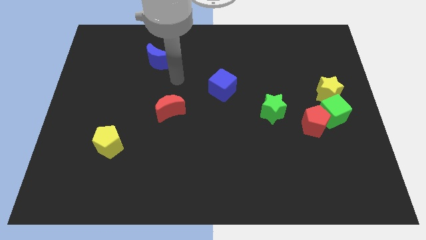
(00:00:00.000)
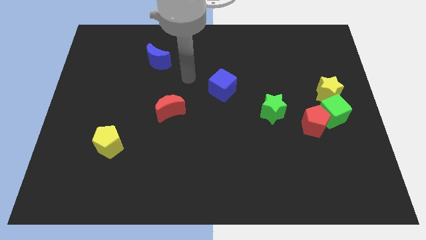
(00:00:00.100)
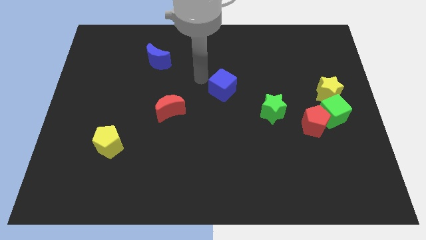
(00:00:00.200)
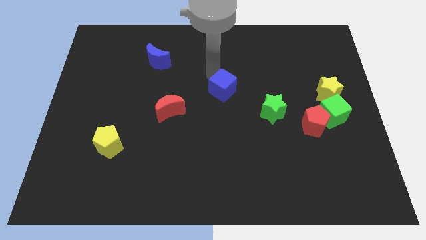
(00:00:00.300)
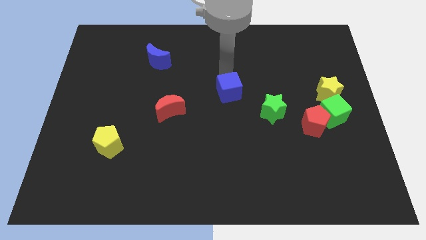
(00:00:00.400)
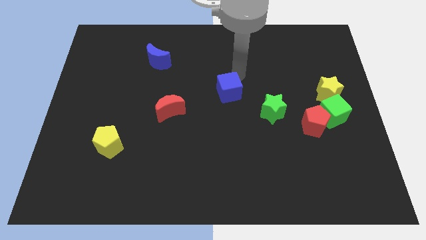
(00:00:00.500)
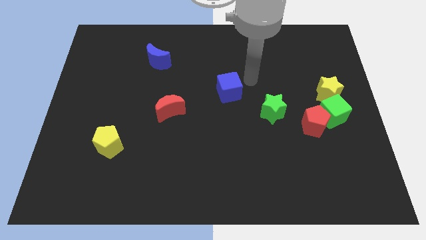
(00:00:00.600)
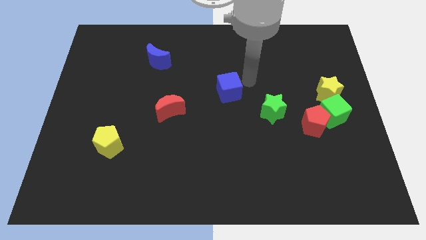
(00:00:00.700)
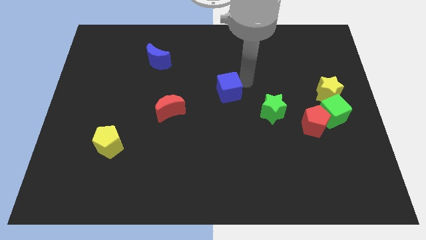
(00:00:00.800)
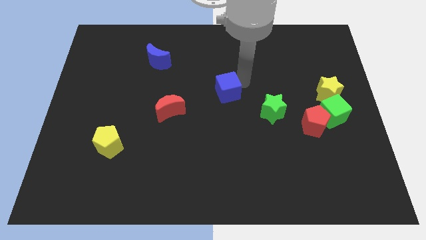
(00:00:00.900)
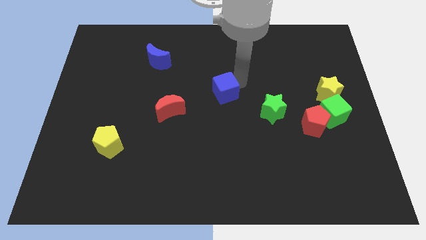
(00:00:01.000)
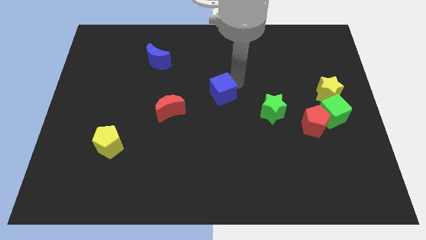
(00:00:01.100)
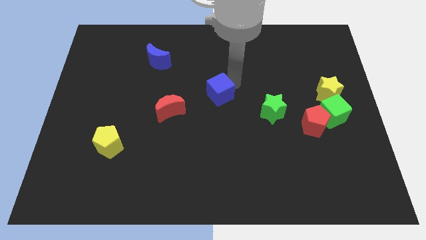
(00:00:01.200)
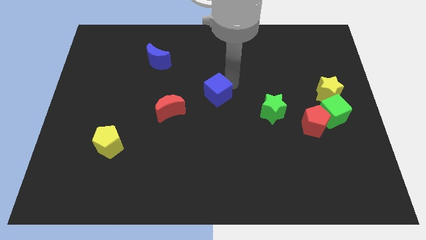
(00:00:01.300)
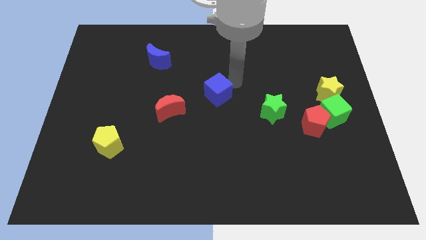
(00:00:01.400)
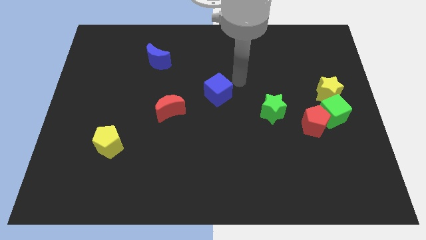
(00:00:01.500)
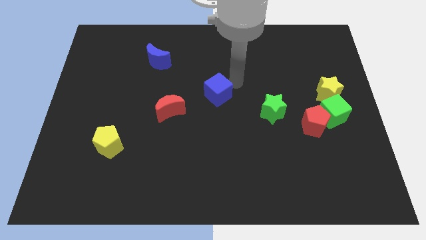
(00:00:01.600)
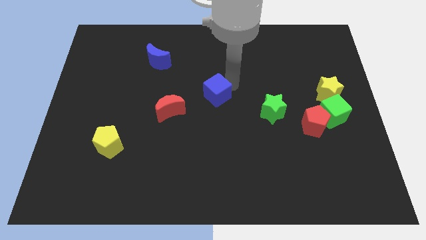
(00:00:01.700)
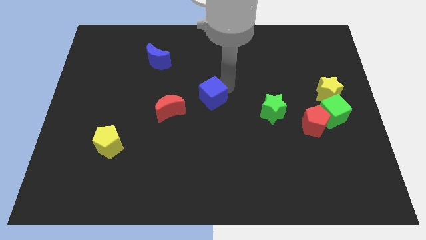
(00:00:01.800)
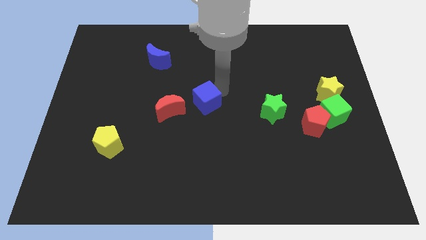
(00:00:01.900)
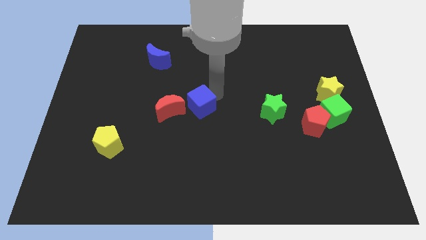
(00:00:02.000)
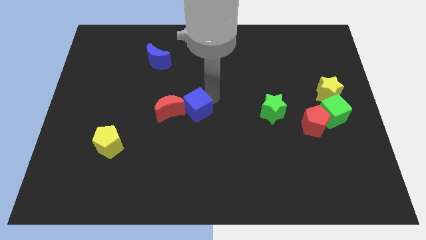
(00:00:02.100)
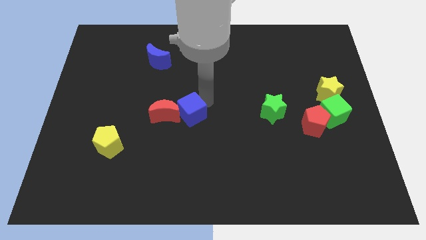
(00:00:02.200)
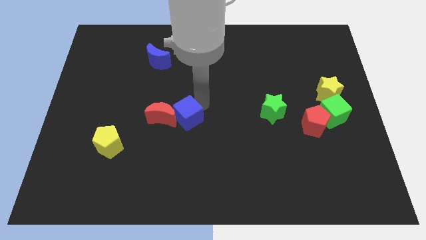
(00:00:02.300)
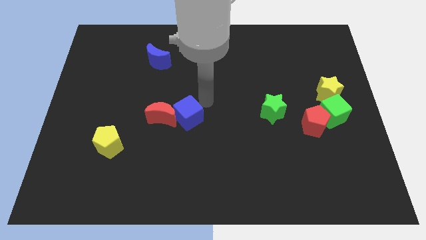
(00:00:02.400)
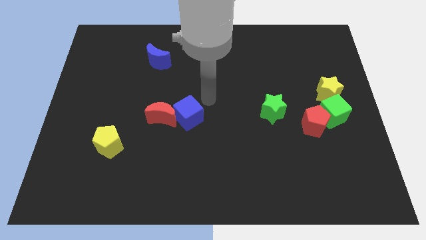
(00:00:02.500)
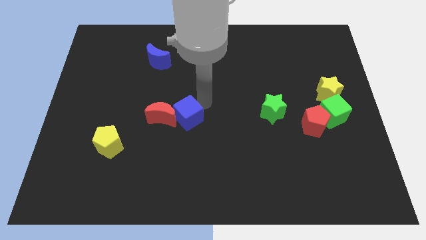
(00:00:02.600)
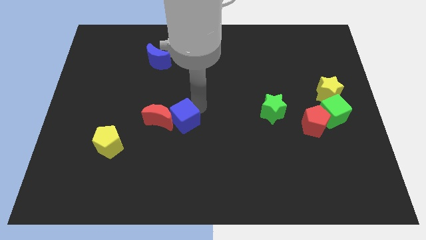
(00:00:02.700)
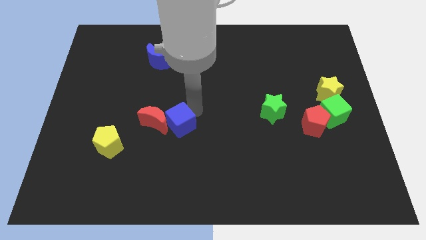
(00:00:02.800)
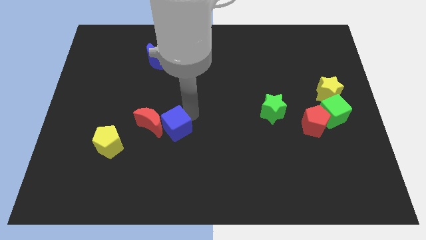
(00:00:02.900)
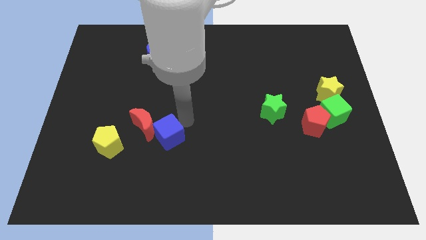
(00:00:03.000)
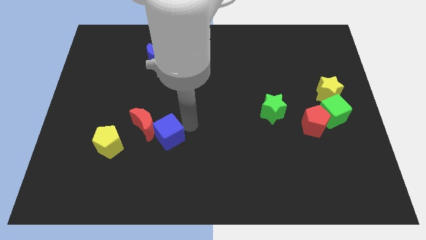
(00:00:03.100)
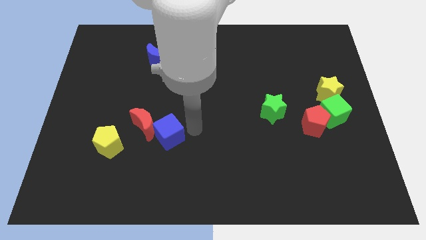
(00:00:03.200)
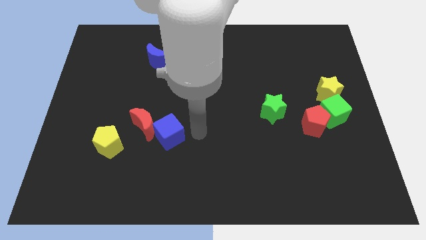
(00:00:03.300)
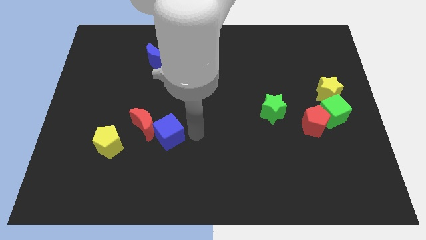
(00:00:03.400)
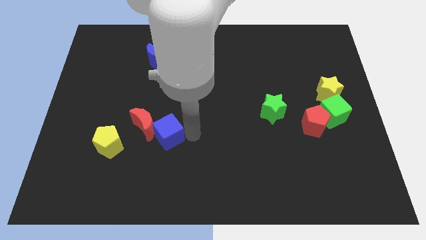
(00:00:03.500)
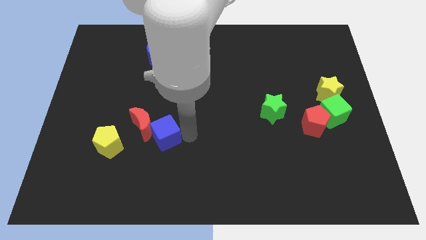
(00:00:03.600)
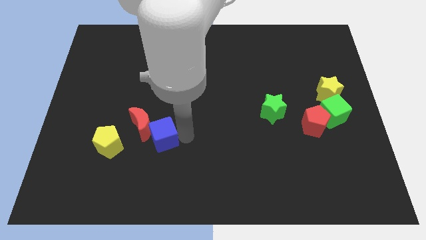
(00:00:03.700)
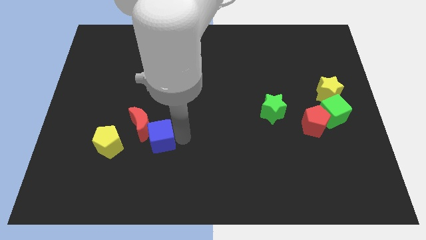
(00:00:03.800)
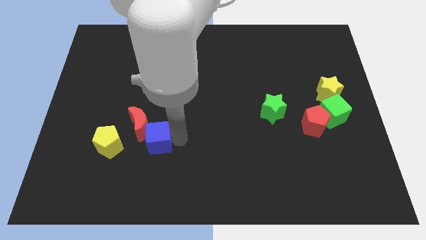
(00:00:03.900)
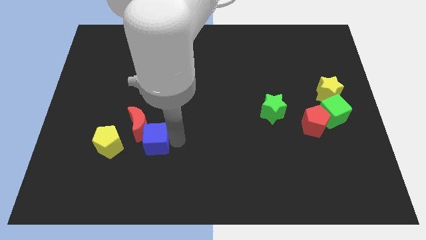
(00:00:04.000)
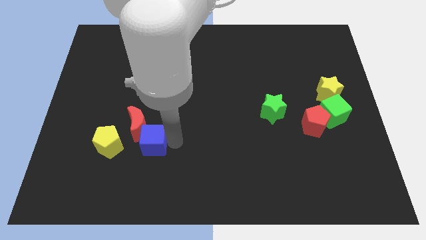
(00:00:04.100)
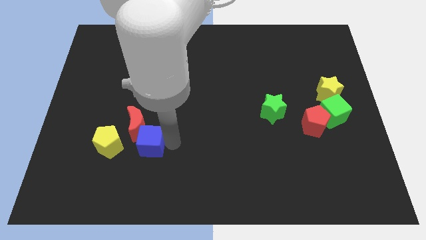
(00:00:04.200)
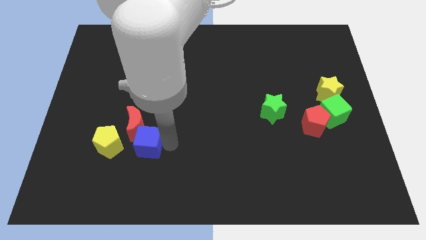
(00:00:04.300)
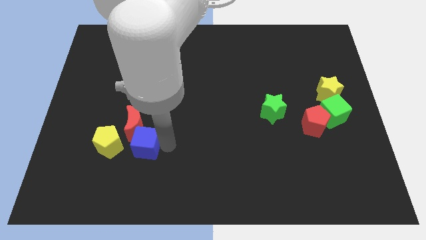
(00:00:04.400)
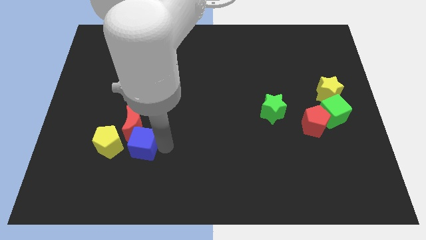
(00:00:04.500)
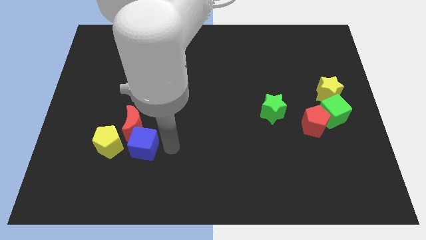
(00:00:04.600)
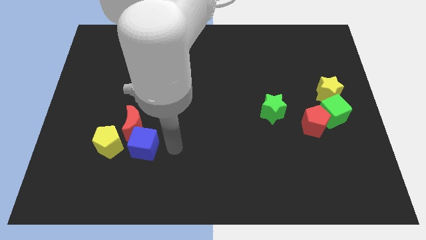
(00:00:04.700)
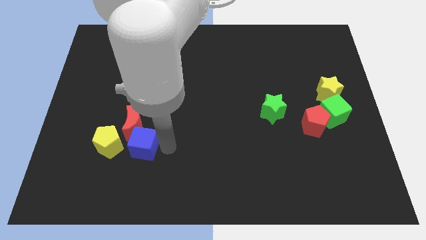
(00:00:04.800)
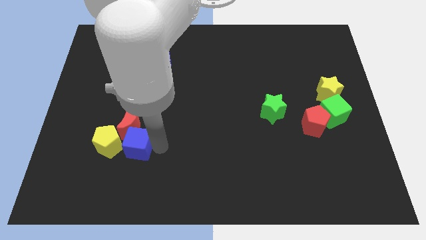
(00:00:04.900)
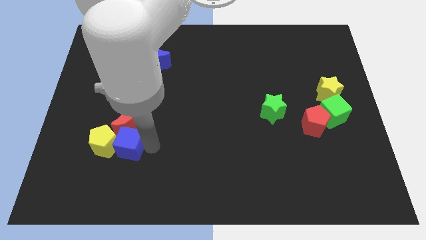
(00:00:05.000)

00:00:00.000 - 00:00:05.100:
move the blue cube next to the yellow pentagon

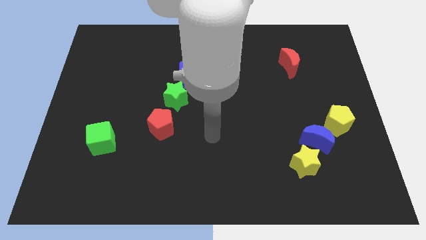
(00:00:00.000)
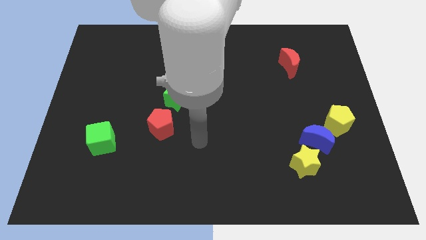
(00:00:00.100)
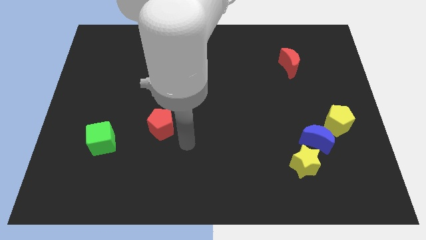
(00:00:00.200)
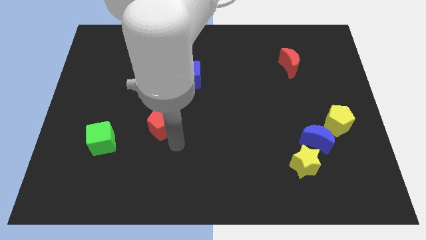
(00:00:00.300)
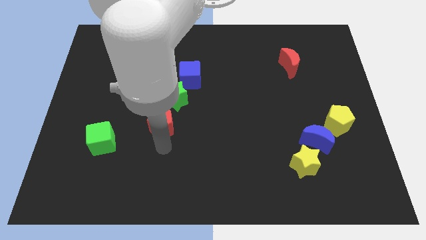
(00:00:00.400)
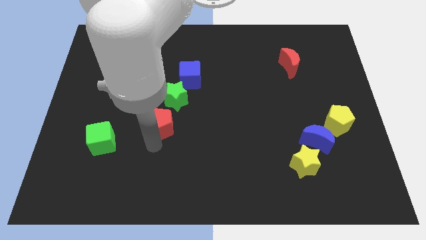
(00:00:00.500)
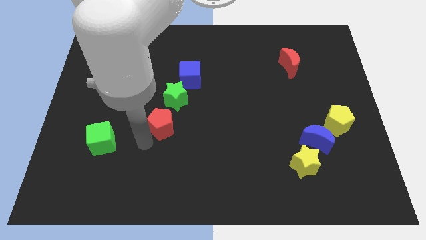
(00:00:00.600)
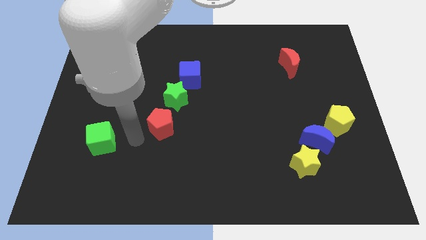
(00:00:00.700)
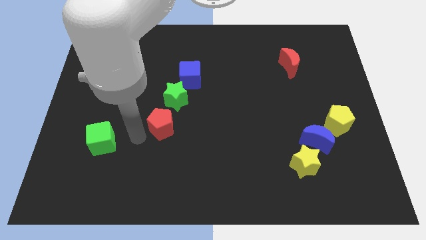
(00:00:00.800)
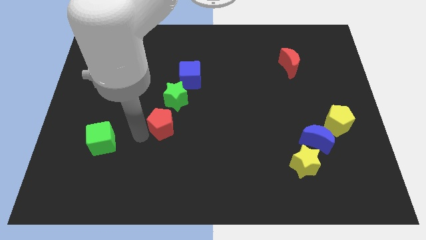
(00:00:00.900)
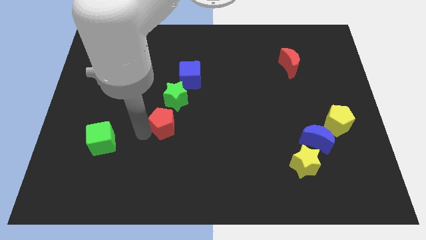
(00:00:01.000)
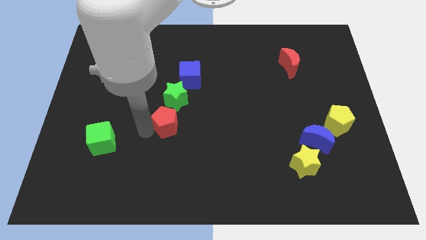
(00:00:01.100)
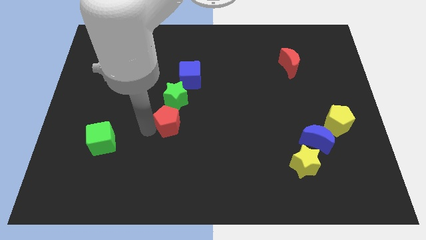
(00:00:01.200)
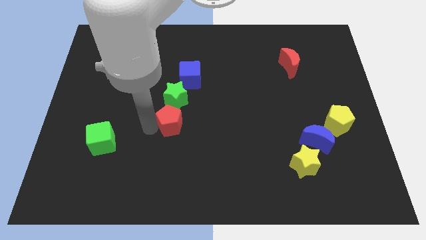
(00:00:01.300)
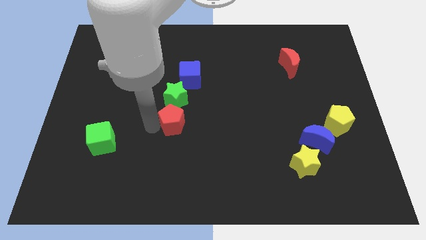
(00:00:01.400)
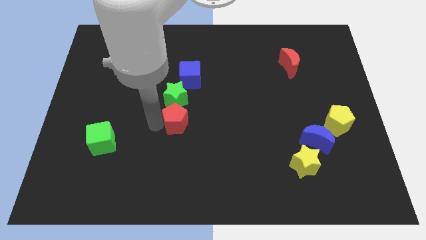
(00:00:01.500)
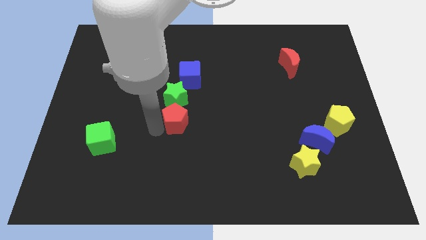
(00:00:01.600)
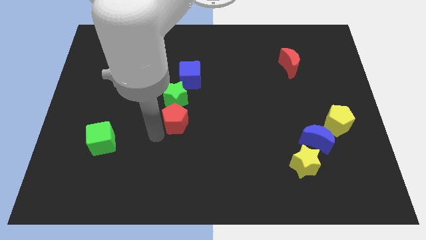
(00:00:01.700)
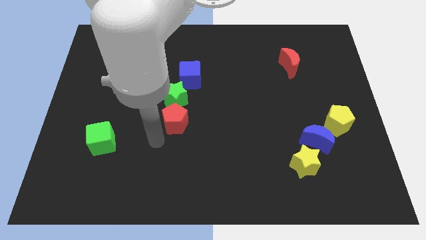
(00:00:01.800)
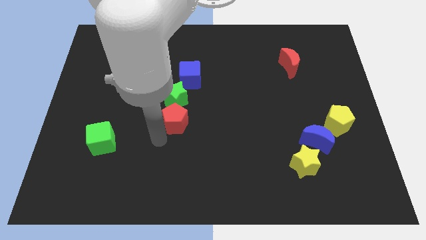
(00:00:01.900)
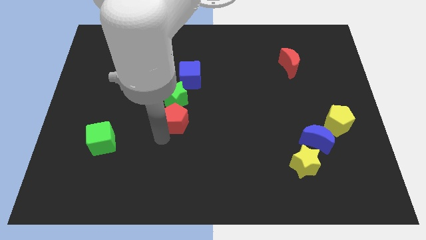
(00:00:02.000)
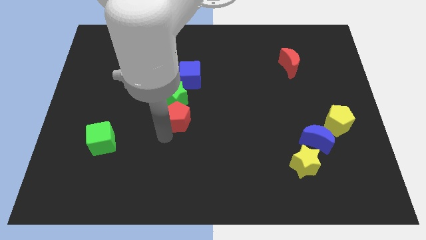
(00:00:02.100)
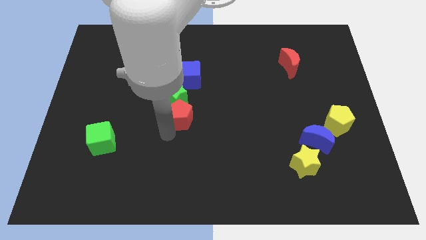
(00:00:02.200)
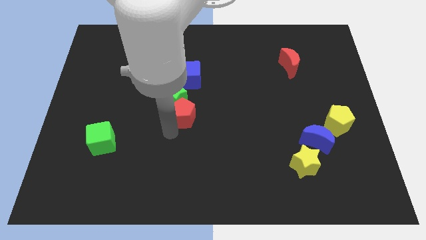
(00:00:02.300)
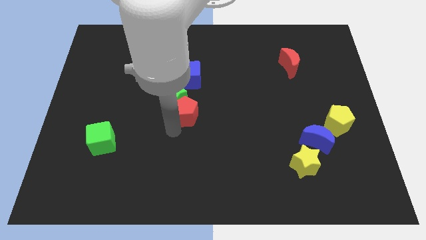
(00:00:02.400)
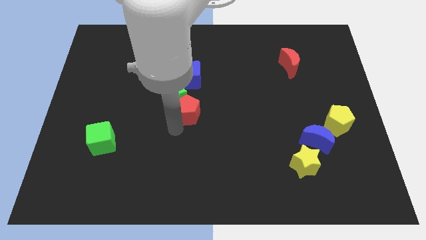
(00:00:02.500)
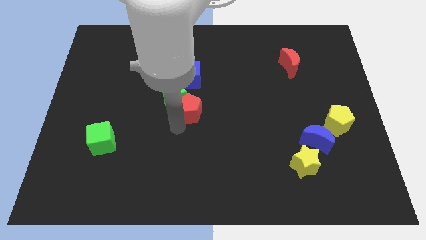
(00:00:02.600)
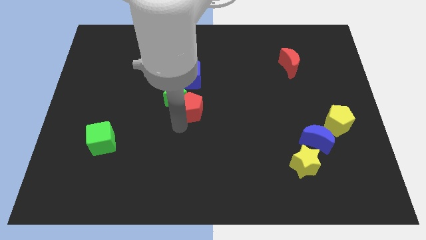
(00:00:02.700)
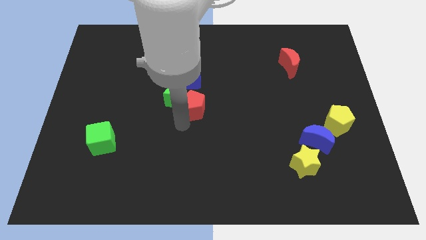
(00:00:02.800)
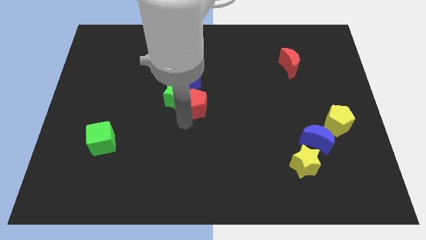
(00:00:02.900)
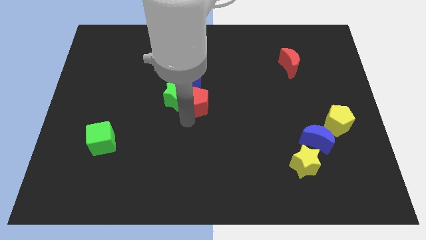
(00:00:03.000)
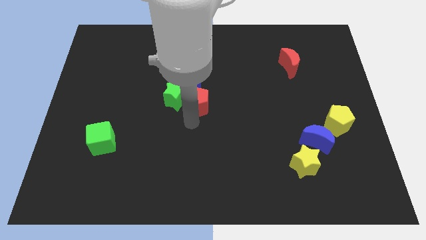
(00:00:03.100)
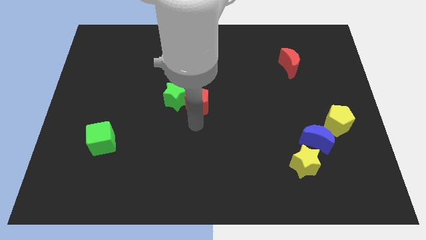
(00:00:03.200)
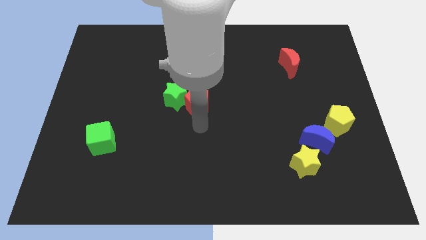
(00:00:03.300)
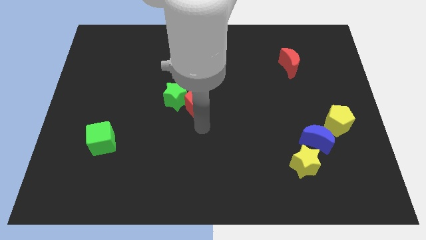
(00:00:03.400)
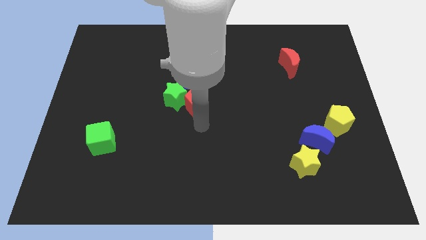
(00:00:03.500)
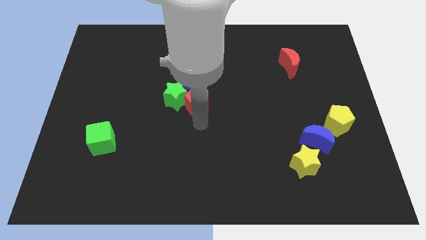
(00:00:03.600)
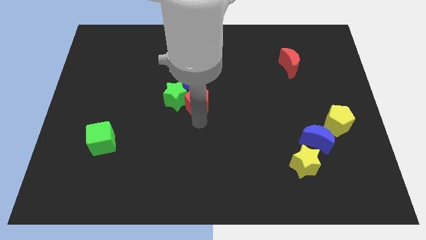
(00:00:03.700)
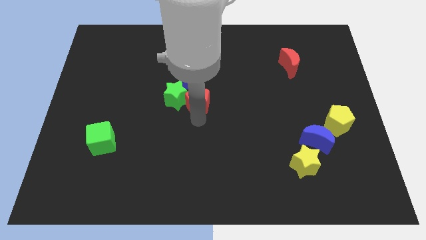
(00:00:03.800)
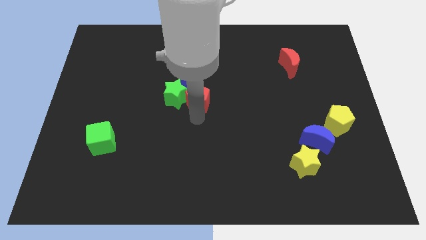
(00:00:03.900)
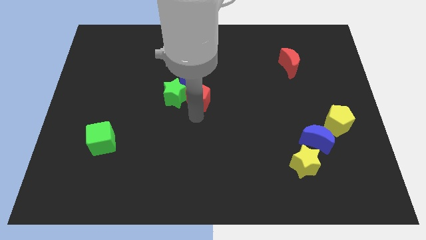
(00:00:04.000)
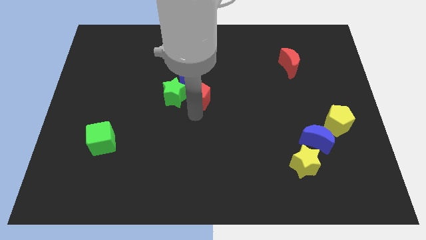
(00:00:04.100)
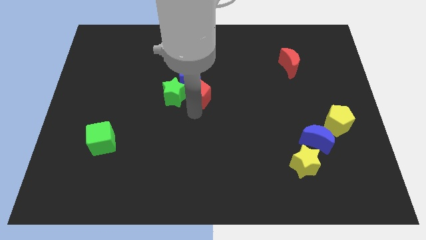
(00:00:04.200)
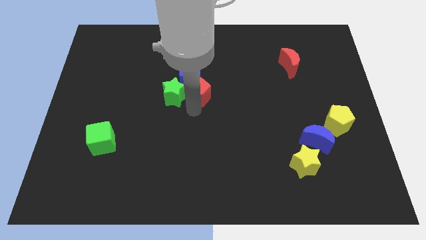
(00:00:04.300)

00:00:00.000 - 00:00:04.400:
move the red pentagon close to the blue cube
